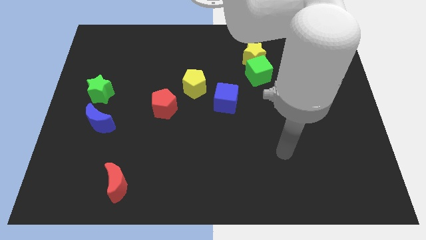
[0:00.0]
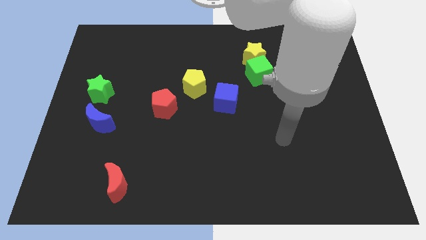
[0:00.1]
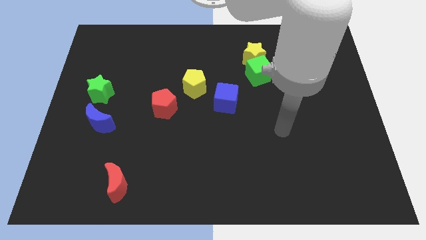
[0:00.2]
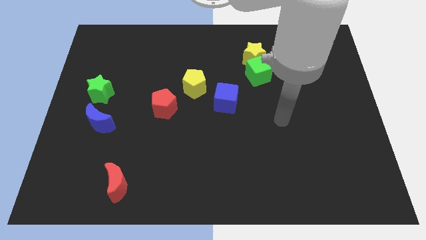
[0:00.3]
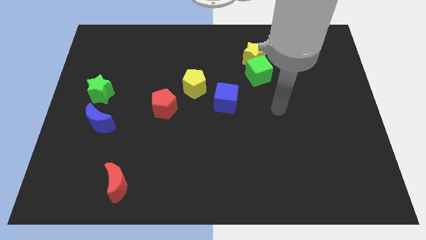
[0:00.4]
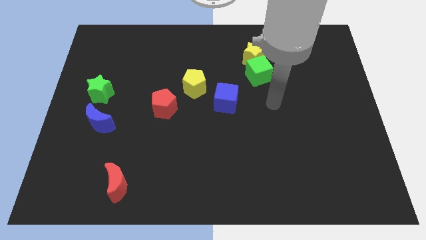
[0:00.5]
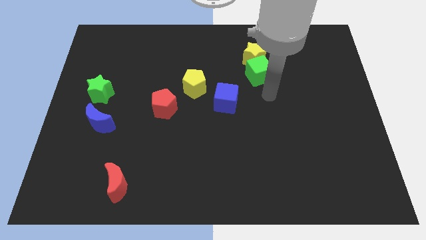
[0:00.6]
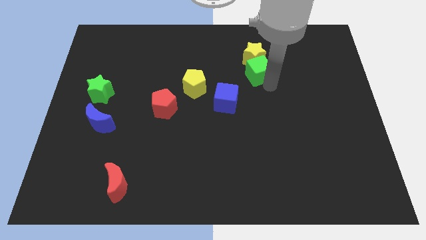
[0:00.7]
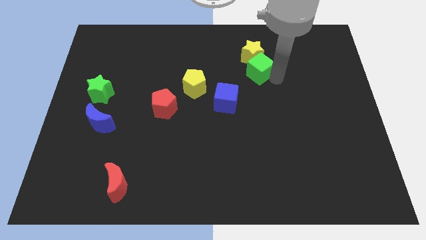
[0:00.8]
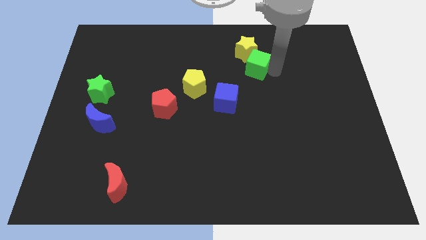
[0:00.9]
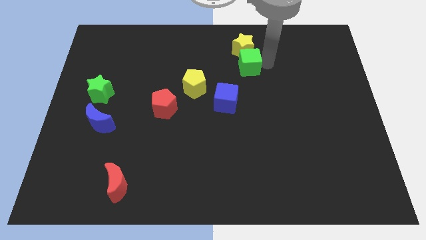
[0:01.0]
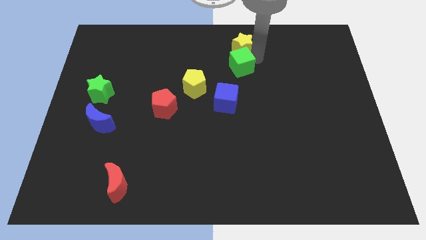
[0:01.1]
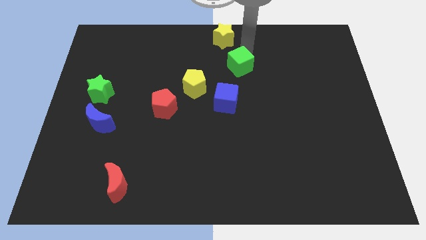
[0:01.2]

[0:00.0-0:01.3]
pull the green cube apart from the yellow star

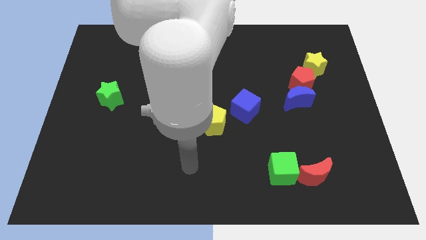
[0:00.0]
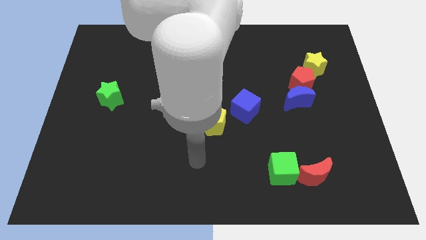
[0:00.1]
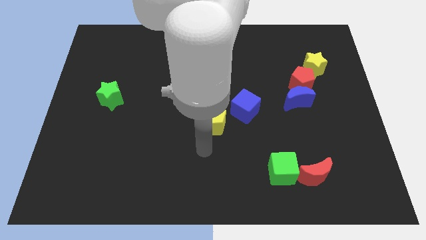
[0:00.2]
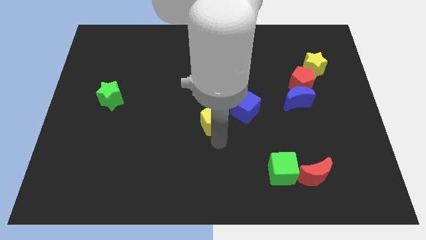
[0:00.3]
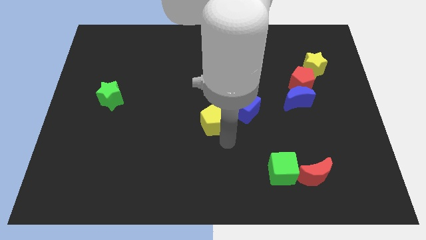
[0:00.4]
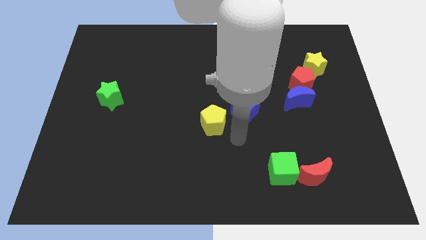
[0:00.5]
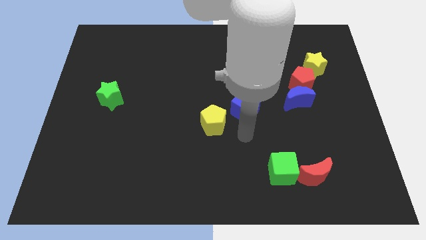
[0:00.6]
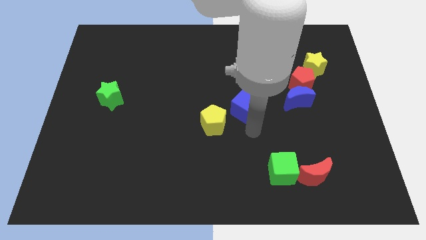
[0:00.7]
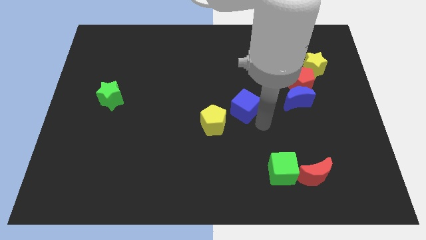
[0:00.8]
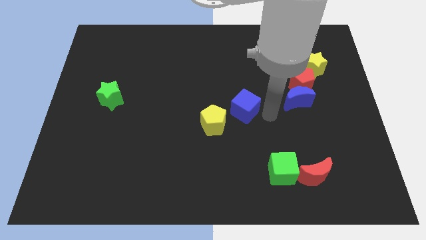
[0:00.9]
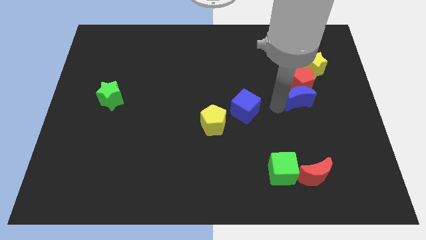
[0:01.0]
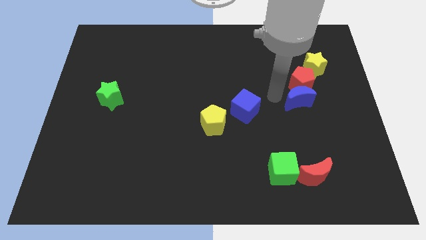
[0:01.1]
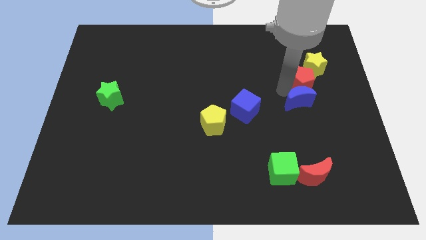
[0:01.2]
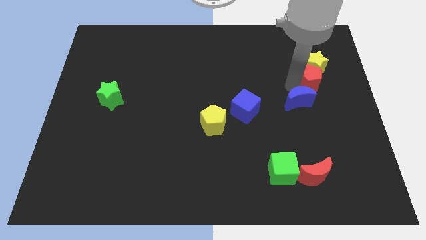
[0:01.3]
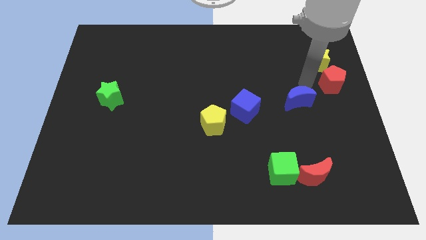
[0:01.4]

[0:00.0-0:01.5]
move the blue moon away from the red pentagon

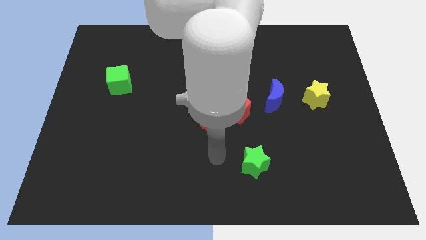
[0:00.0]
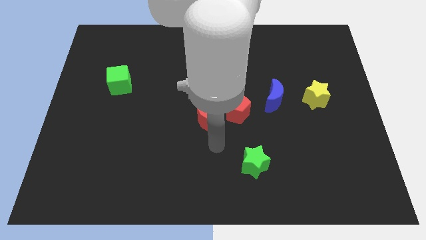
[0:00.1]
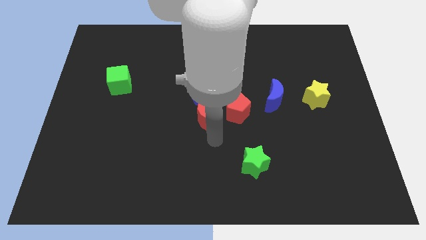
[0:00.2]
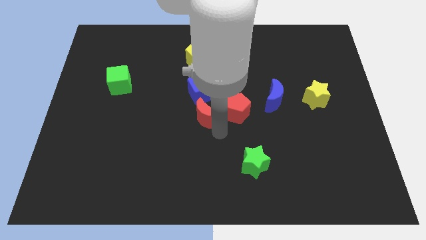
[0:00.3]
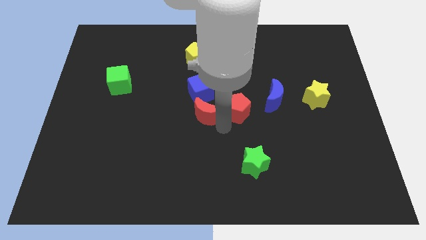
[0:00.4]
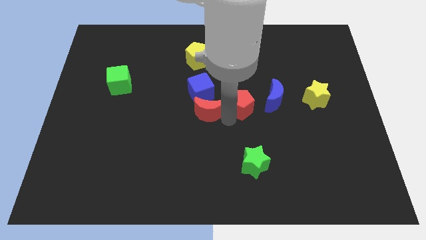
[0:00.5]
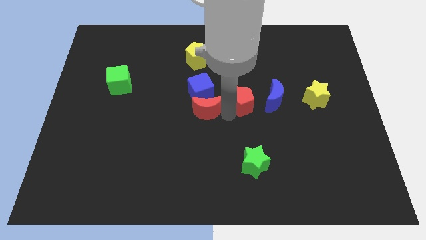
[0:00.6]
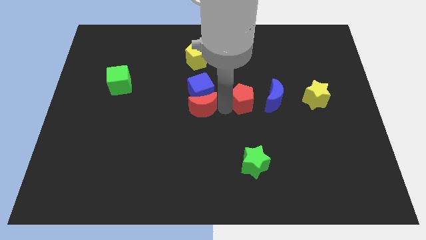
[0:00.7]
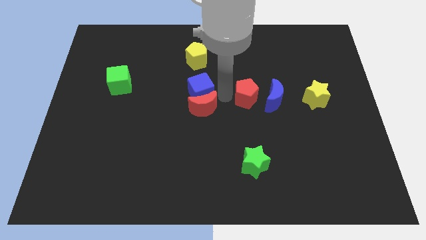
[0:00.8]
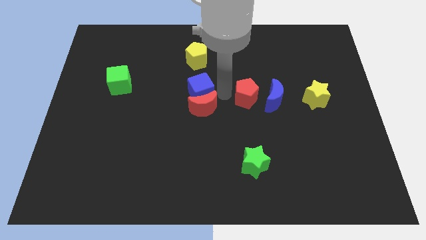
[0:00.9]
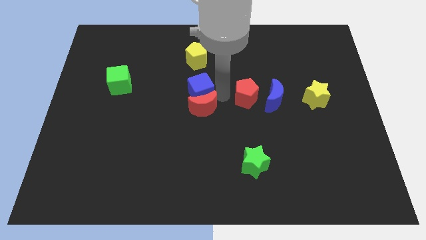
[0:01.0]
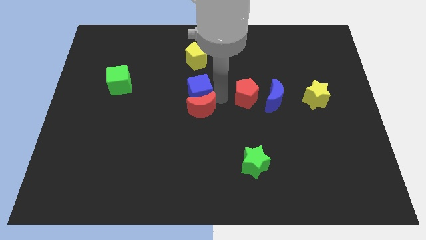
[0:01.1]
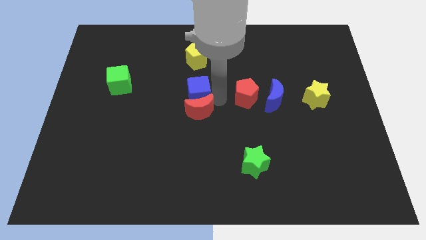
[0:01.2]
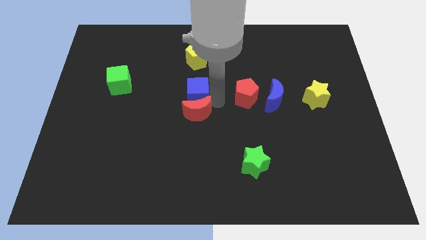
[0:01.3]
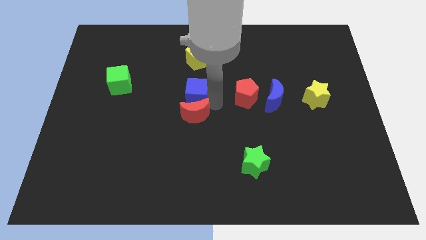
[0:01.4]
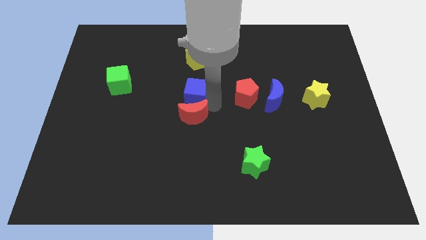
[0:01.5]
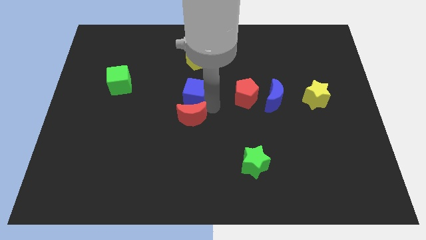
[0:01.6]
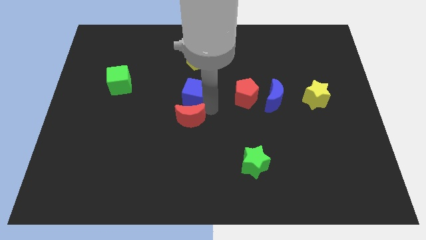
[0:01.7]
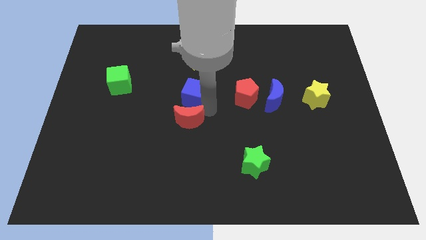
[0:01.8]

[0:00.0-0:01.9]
separate the red moon from the red pentagon and blue cube

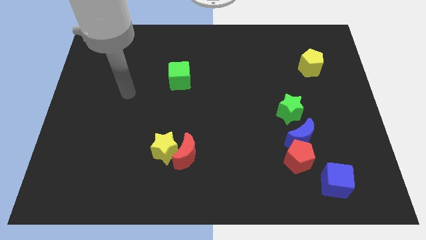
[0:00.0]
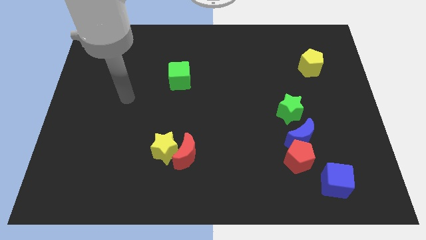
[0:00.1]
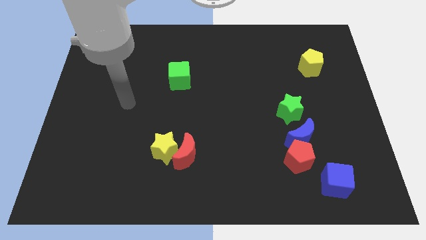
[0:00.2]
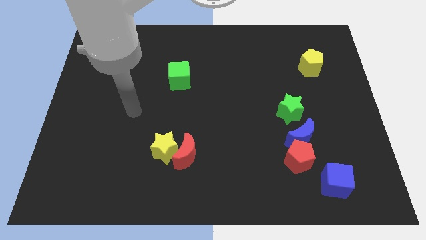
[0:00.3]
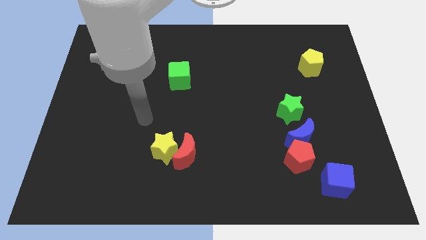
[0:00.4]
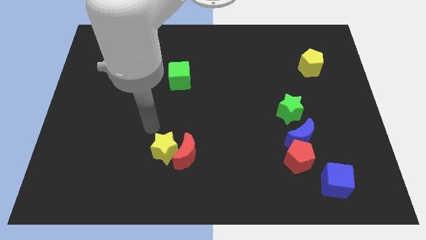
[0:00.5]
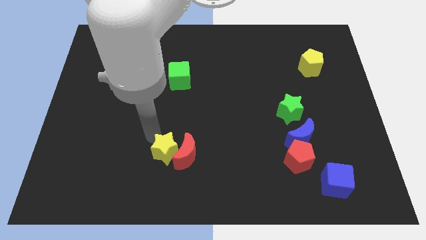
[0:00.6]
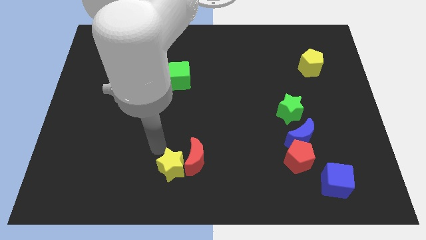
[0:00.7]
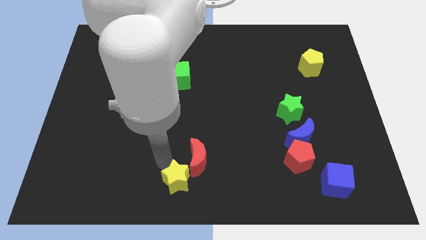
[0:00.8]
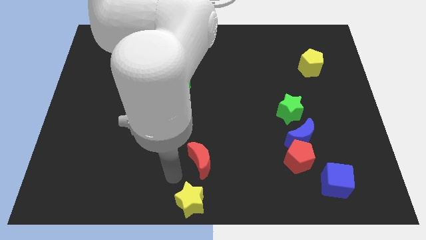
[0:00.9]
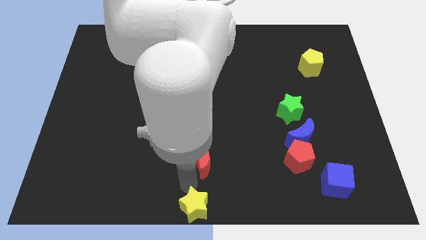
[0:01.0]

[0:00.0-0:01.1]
separate the red moon from the yellow star

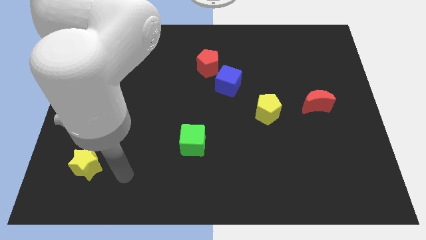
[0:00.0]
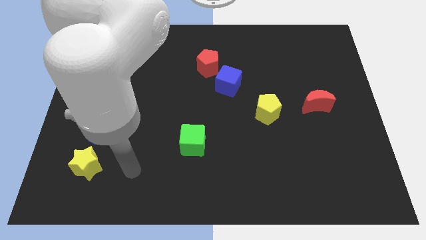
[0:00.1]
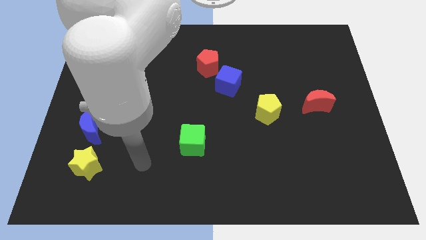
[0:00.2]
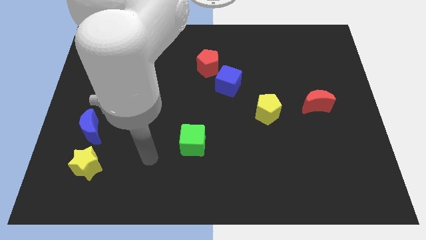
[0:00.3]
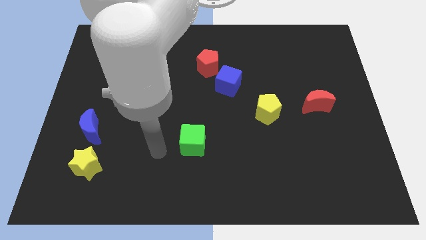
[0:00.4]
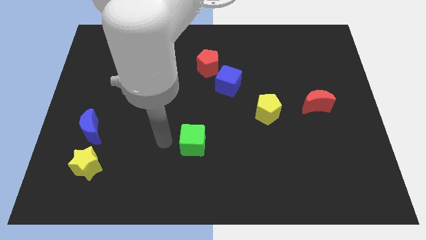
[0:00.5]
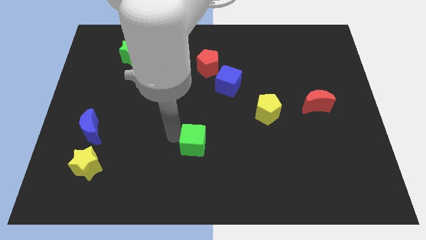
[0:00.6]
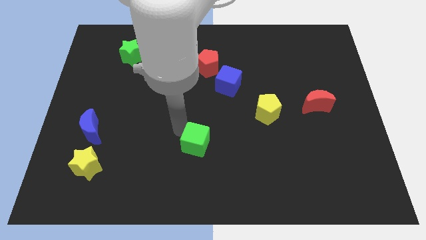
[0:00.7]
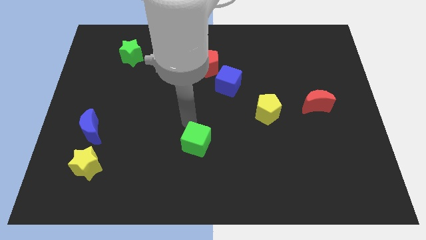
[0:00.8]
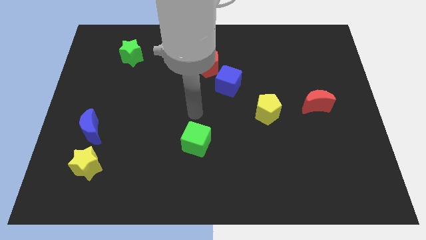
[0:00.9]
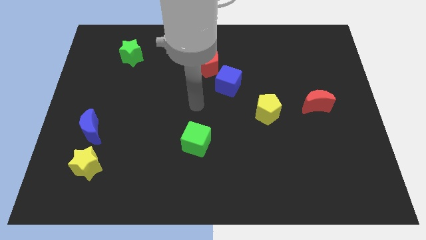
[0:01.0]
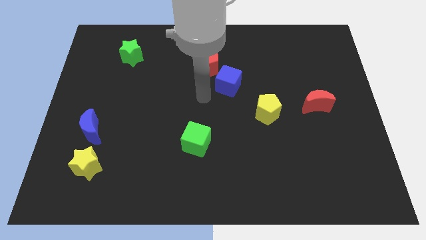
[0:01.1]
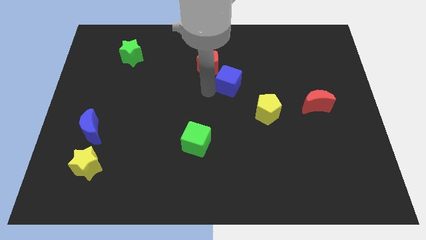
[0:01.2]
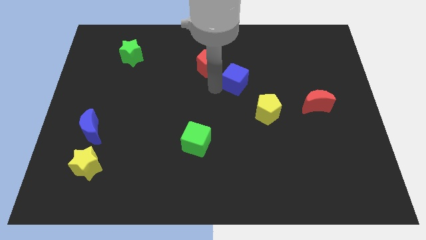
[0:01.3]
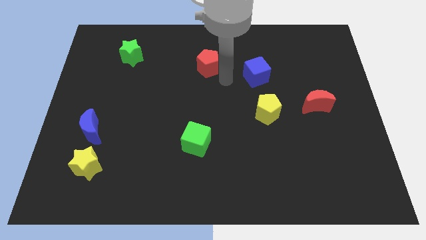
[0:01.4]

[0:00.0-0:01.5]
separate the red pentagon from the blue cube

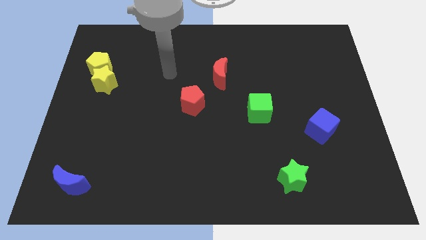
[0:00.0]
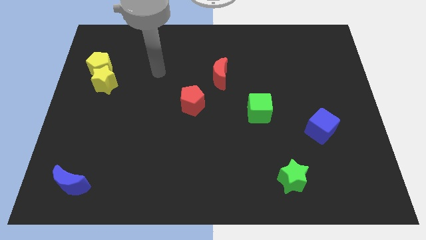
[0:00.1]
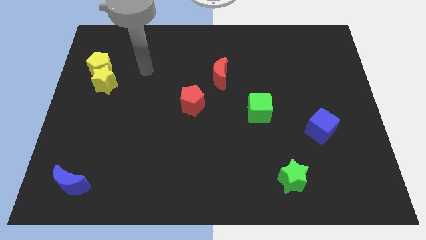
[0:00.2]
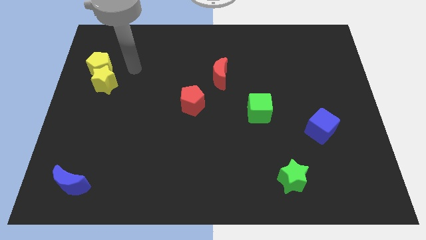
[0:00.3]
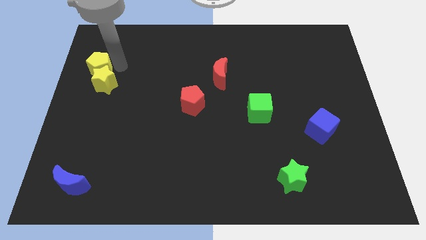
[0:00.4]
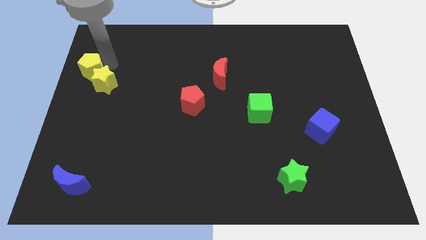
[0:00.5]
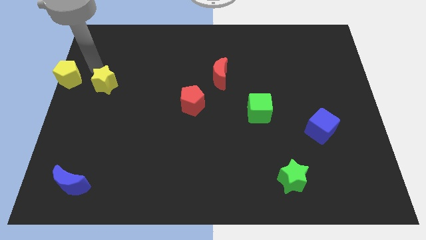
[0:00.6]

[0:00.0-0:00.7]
pull the yellow star apart from the yellow pentagon

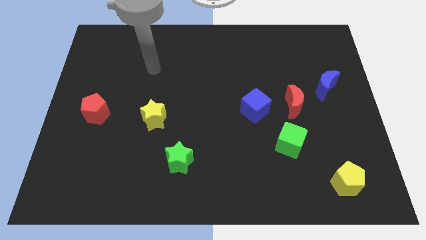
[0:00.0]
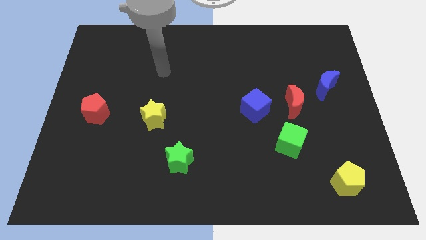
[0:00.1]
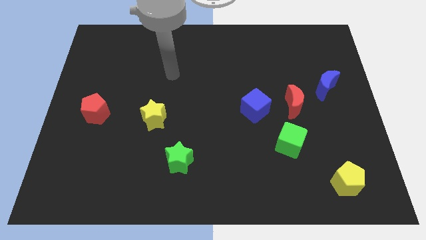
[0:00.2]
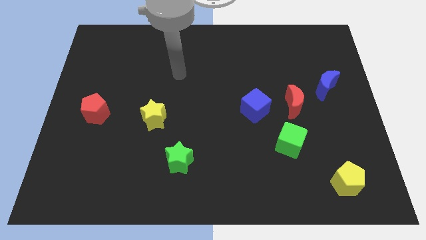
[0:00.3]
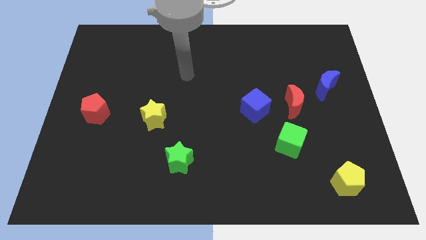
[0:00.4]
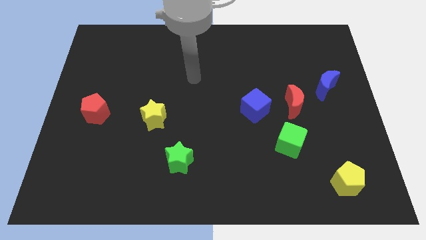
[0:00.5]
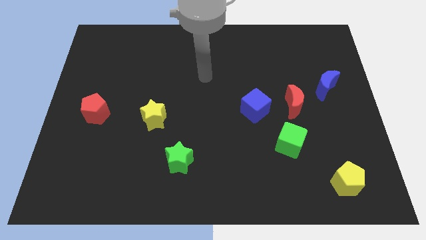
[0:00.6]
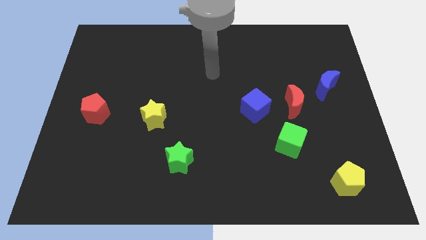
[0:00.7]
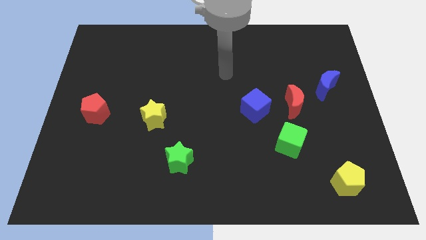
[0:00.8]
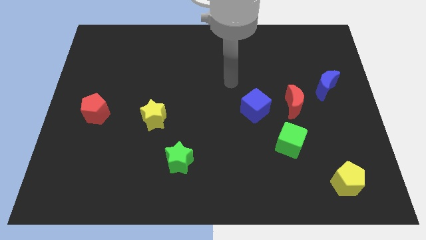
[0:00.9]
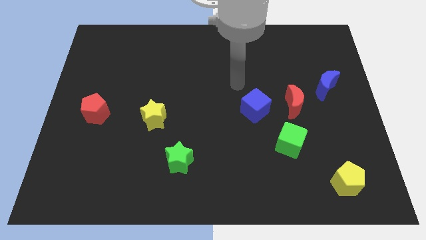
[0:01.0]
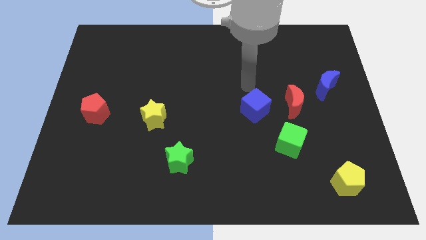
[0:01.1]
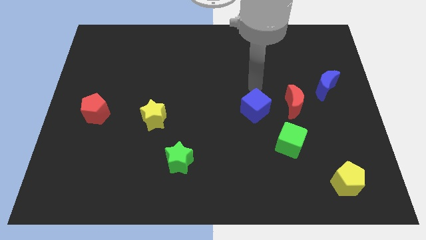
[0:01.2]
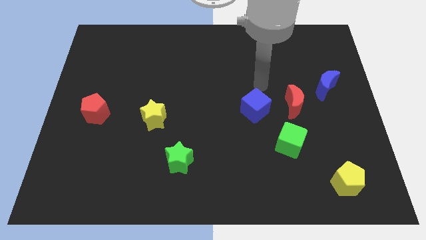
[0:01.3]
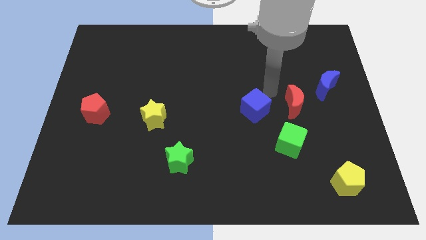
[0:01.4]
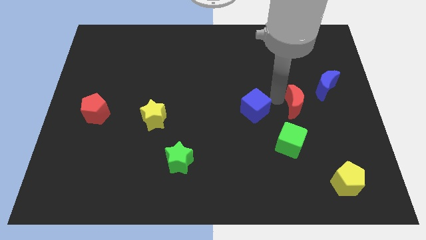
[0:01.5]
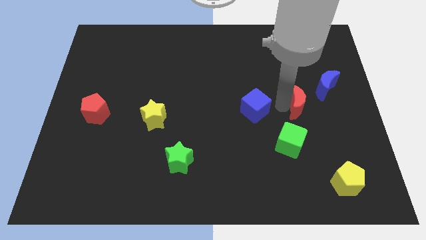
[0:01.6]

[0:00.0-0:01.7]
separate the blue cube from the red moon
